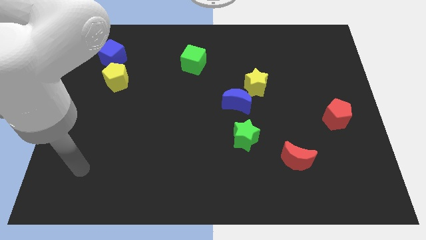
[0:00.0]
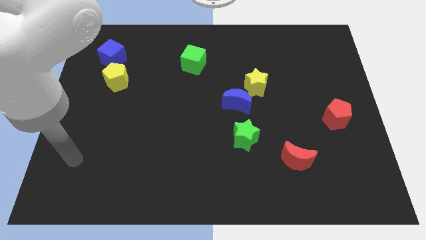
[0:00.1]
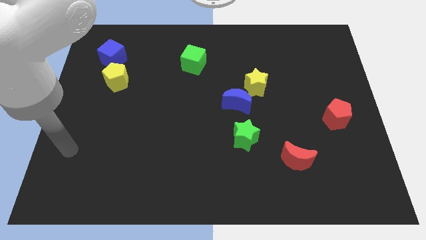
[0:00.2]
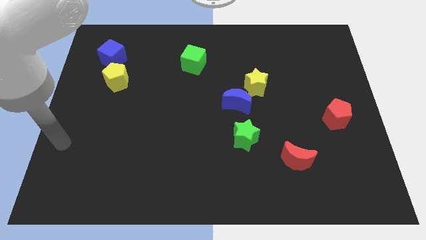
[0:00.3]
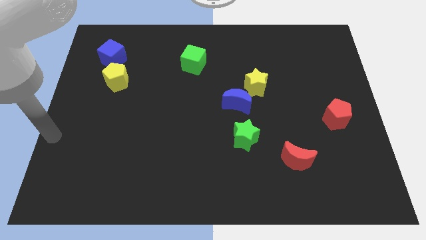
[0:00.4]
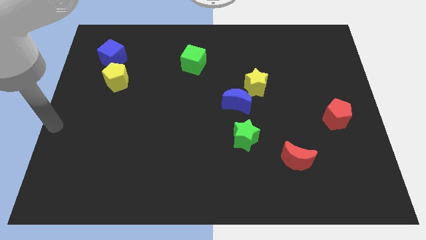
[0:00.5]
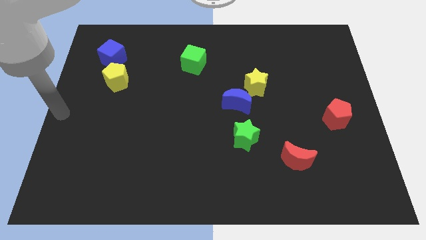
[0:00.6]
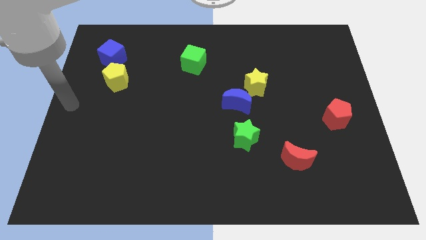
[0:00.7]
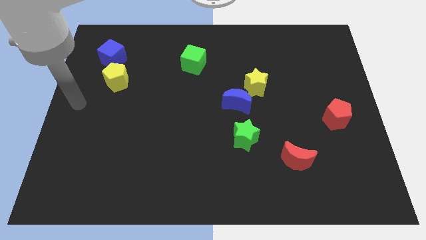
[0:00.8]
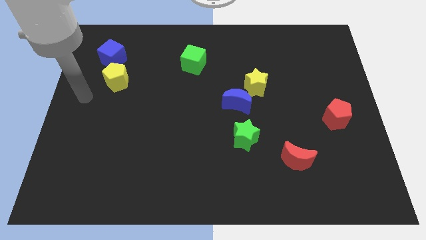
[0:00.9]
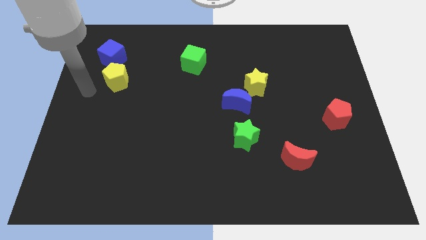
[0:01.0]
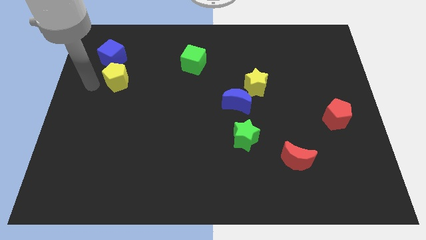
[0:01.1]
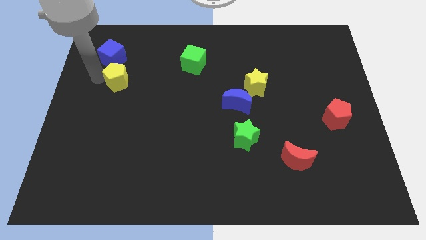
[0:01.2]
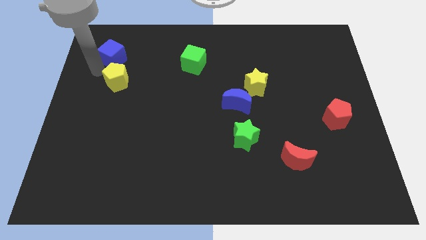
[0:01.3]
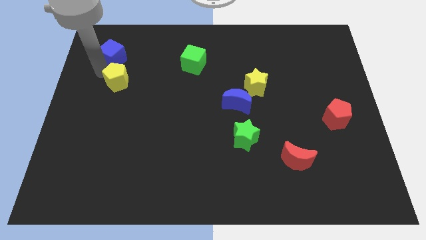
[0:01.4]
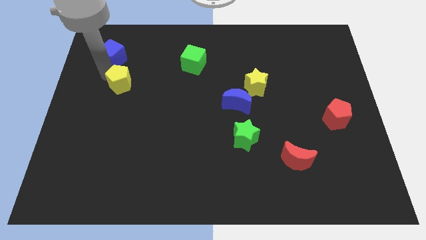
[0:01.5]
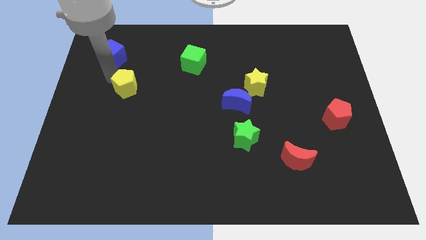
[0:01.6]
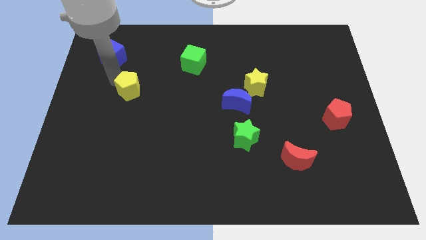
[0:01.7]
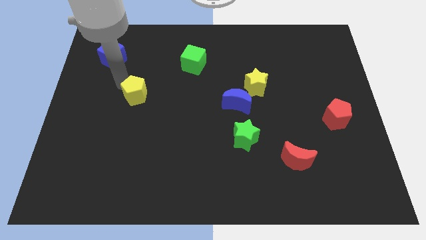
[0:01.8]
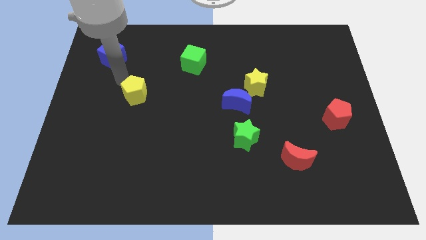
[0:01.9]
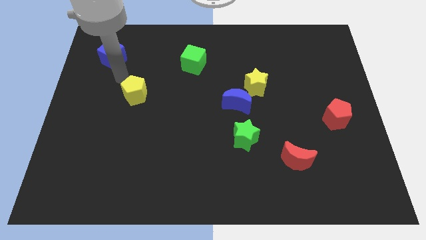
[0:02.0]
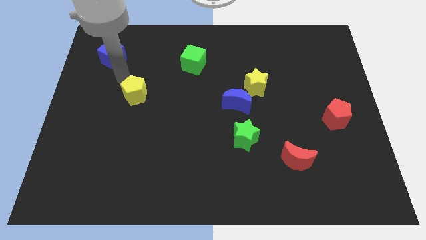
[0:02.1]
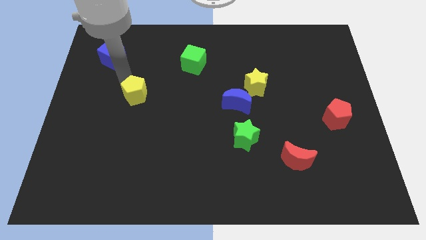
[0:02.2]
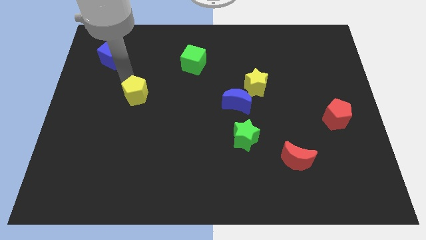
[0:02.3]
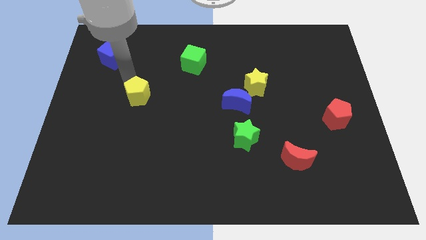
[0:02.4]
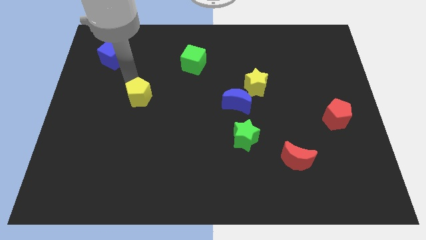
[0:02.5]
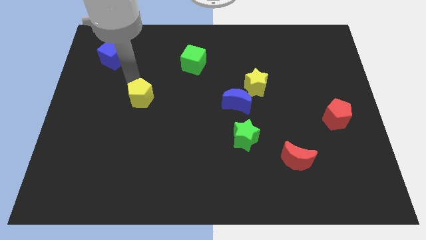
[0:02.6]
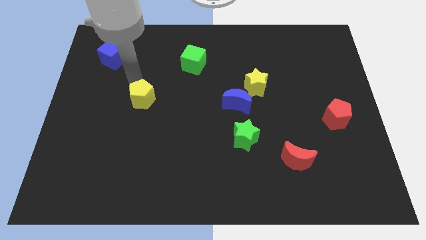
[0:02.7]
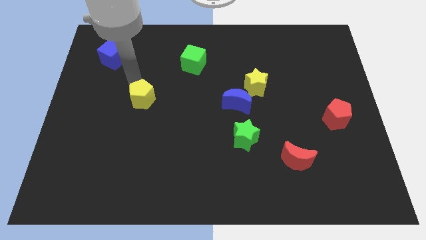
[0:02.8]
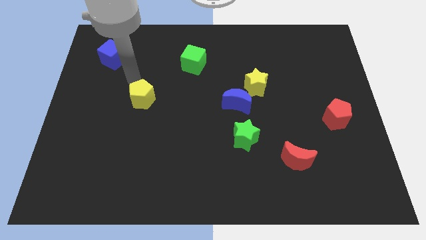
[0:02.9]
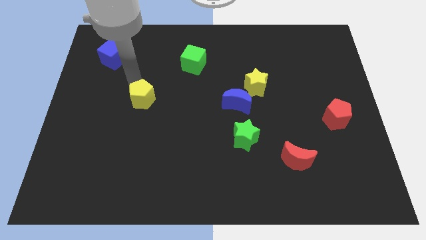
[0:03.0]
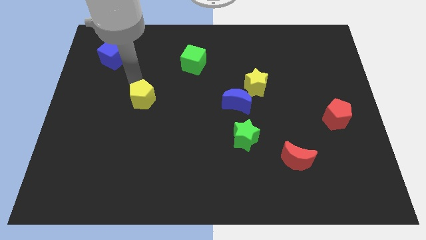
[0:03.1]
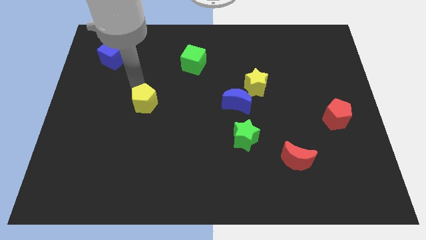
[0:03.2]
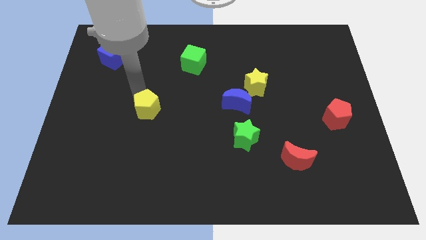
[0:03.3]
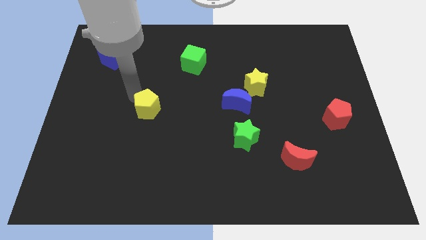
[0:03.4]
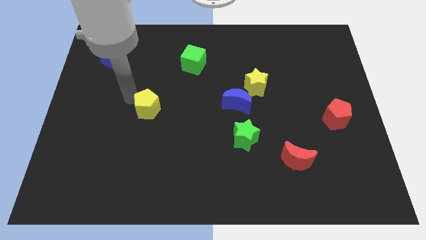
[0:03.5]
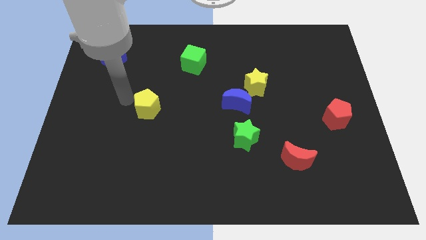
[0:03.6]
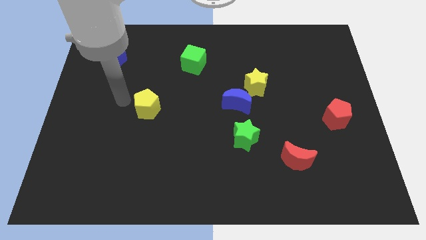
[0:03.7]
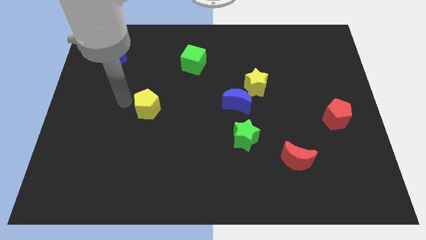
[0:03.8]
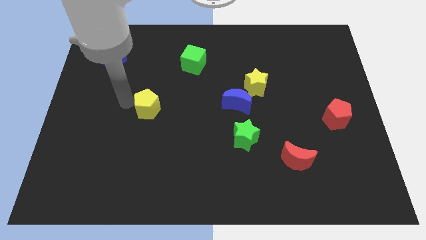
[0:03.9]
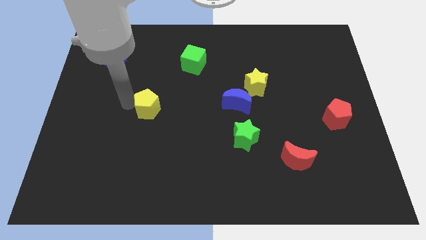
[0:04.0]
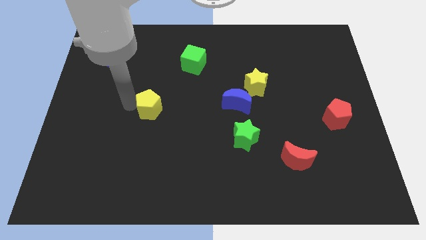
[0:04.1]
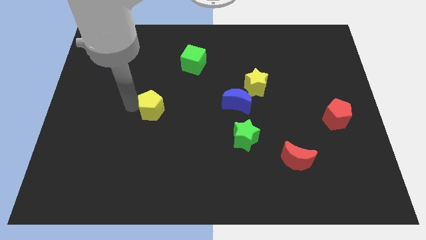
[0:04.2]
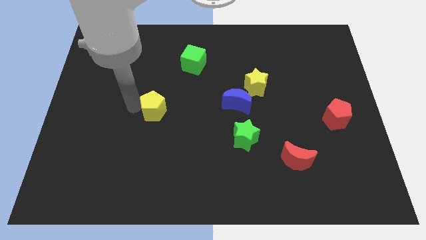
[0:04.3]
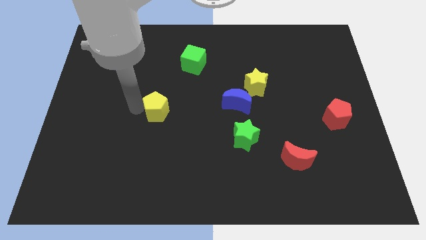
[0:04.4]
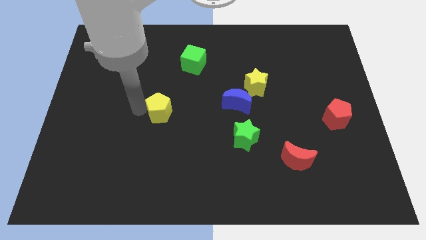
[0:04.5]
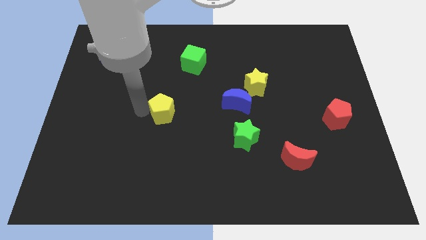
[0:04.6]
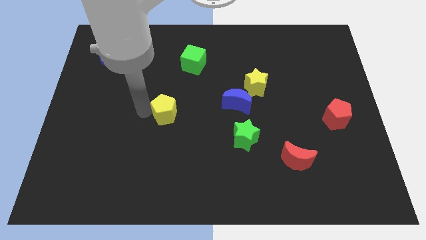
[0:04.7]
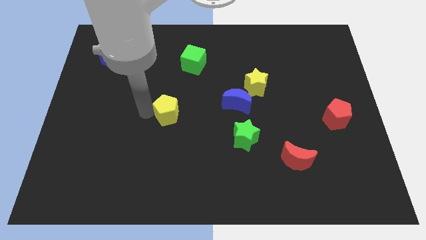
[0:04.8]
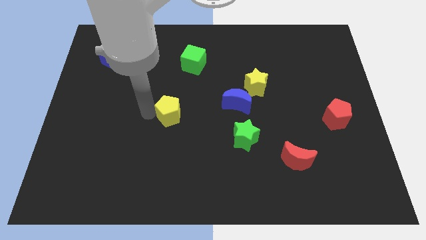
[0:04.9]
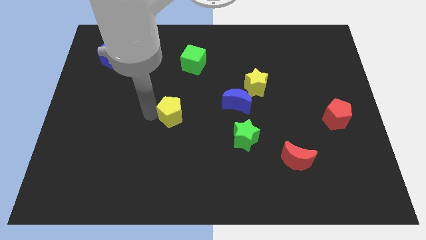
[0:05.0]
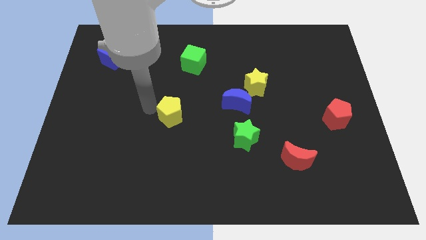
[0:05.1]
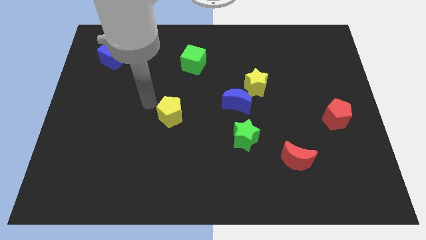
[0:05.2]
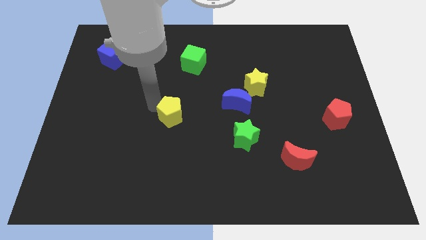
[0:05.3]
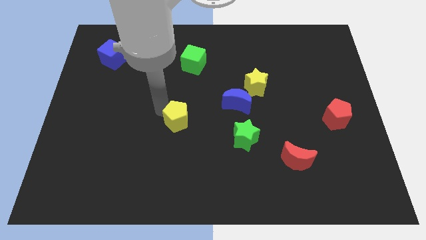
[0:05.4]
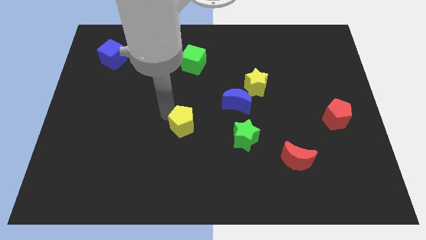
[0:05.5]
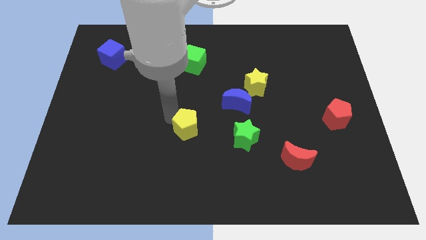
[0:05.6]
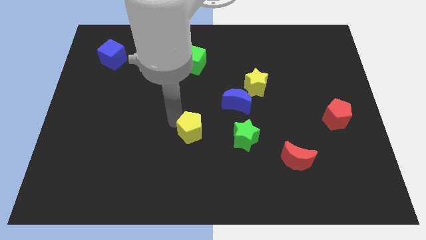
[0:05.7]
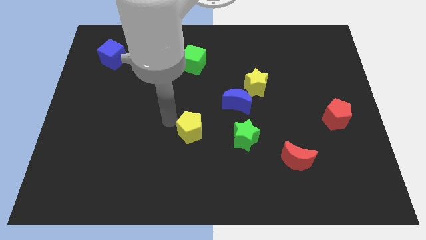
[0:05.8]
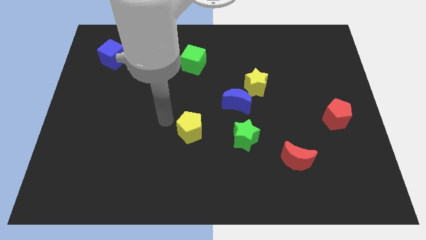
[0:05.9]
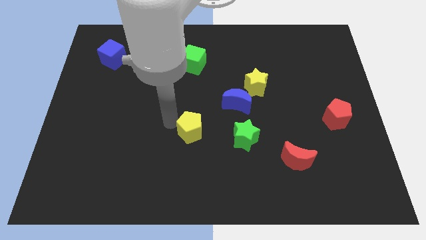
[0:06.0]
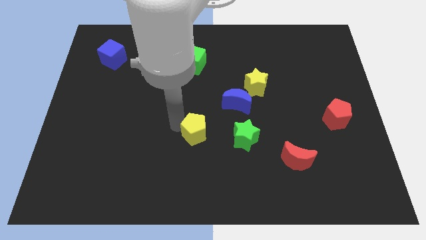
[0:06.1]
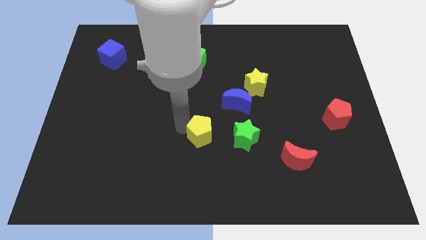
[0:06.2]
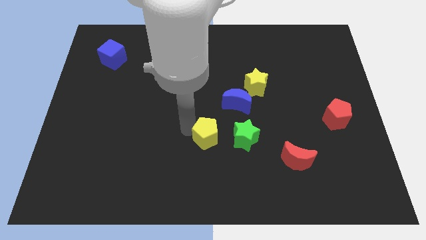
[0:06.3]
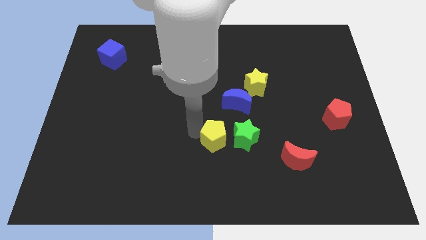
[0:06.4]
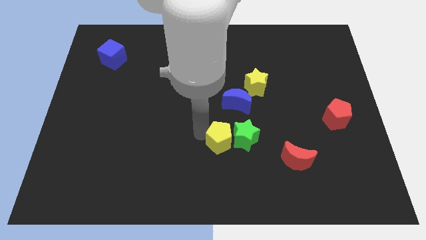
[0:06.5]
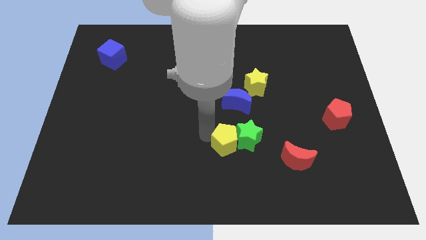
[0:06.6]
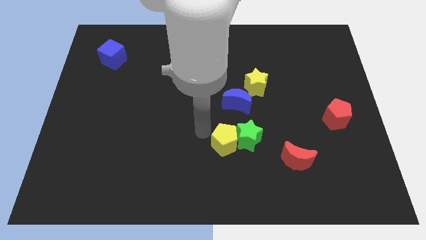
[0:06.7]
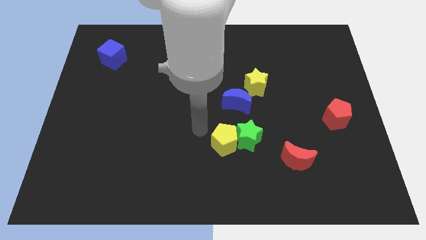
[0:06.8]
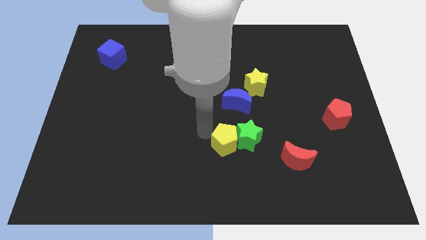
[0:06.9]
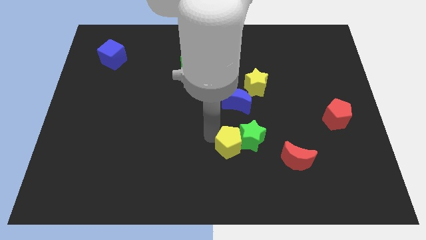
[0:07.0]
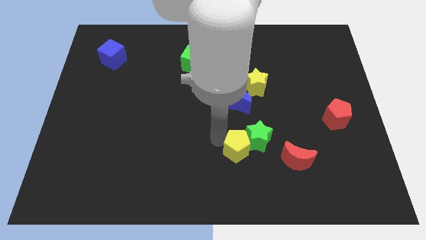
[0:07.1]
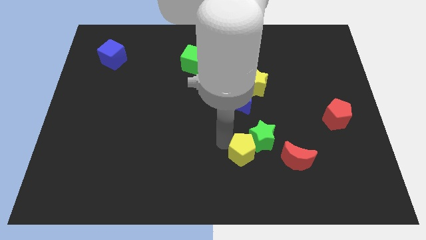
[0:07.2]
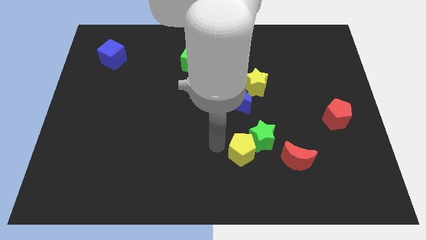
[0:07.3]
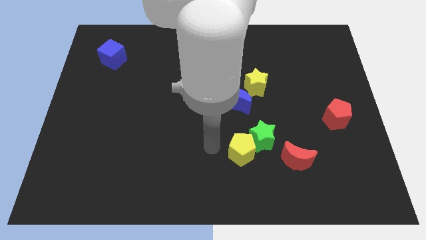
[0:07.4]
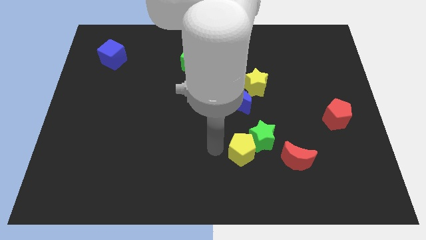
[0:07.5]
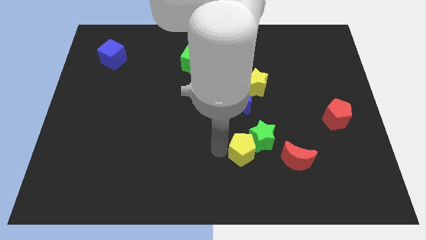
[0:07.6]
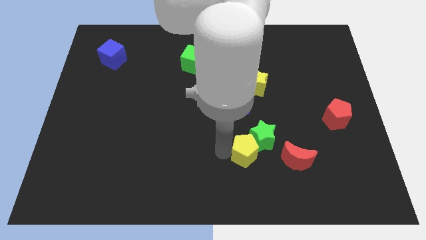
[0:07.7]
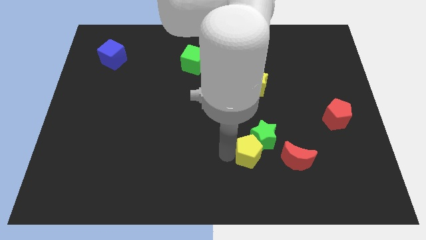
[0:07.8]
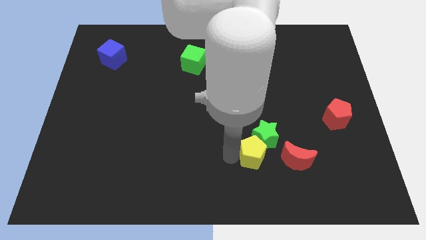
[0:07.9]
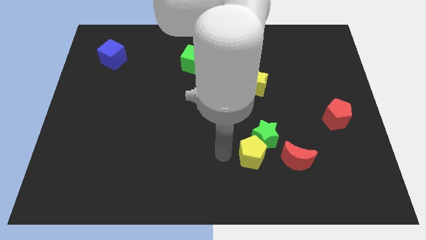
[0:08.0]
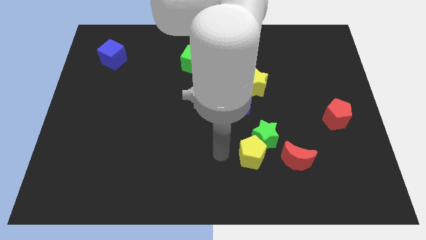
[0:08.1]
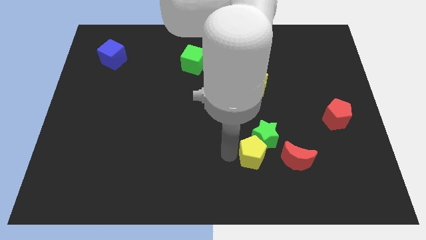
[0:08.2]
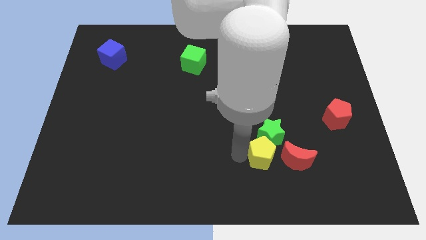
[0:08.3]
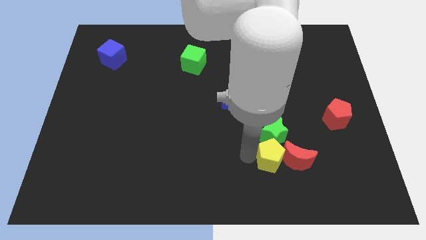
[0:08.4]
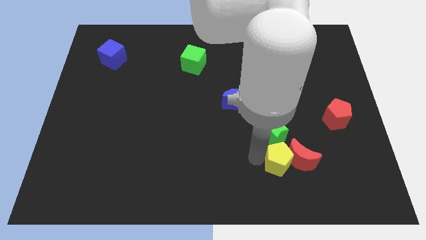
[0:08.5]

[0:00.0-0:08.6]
put the yellow pentagon diagonally down and to the right of the green star
